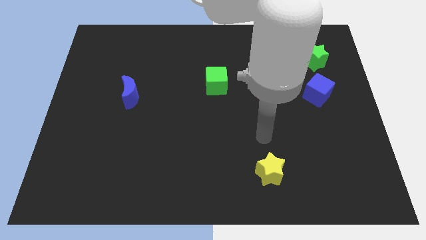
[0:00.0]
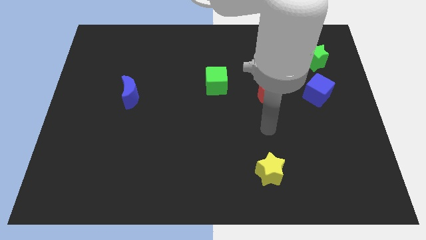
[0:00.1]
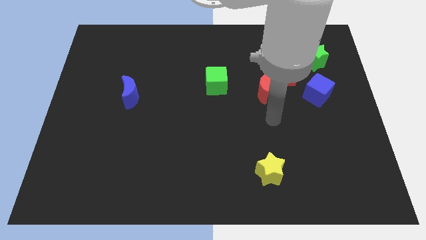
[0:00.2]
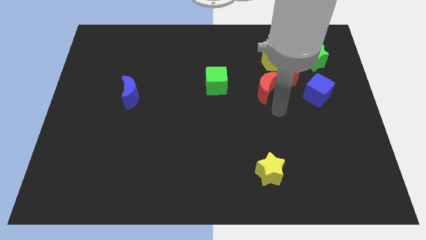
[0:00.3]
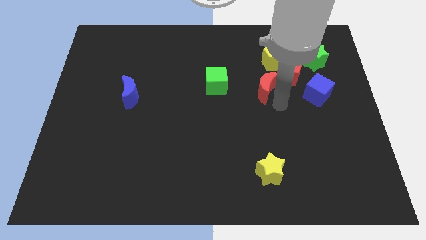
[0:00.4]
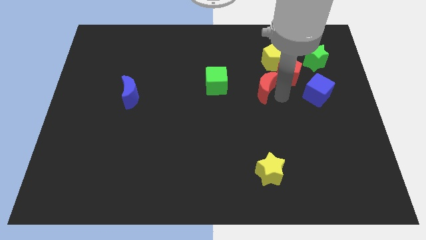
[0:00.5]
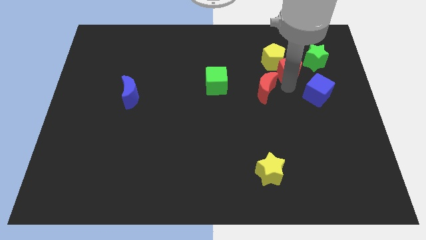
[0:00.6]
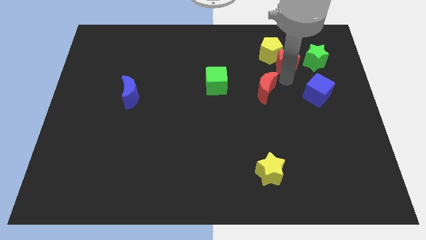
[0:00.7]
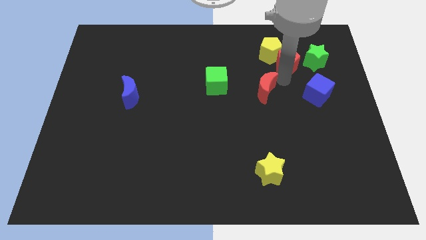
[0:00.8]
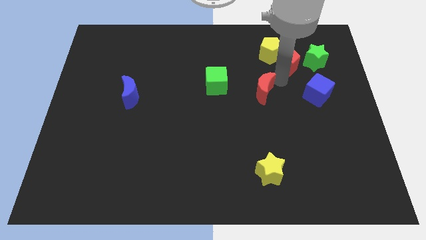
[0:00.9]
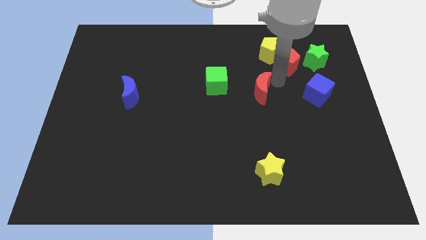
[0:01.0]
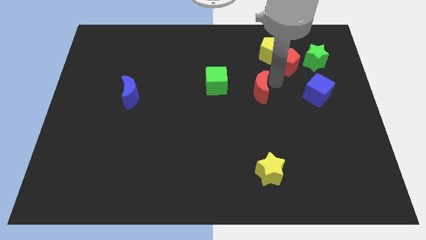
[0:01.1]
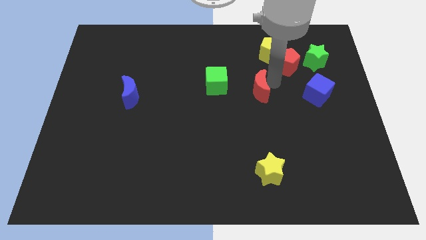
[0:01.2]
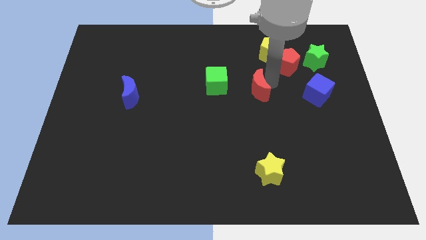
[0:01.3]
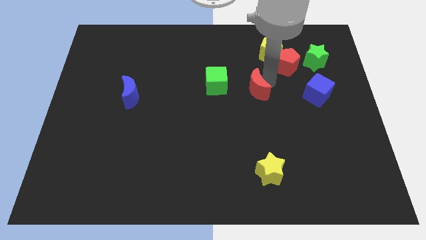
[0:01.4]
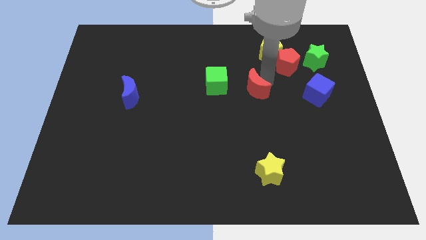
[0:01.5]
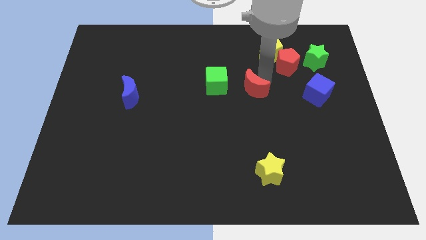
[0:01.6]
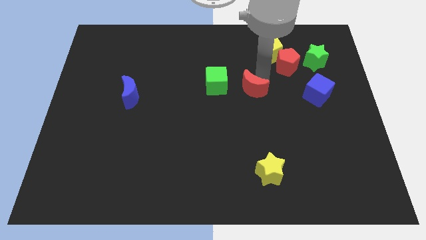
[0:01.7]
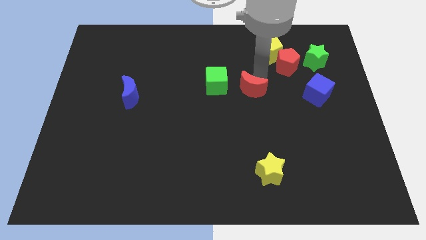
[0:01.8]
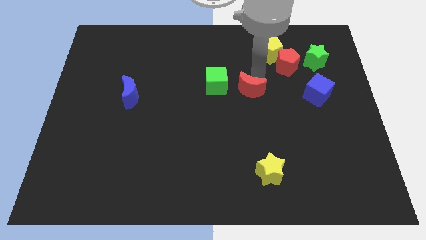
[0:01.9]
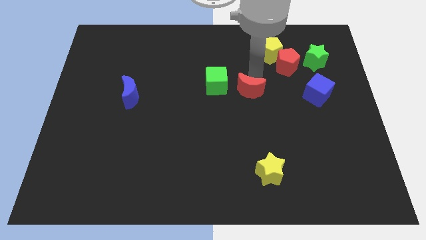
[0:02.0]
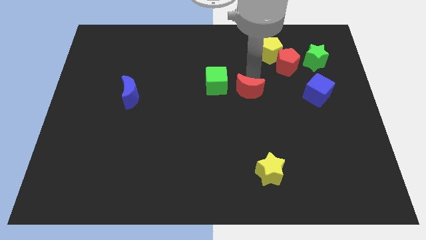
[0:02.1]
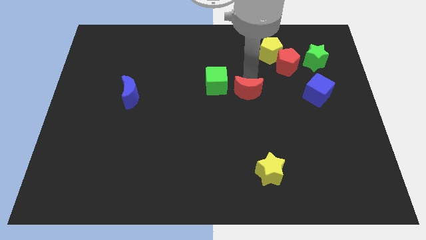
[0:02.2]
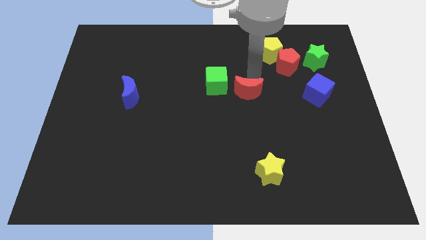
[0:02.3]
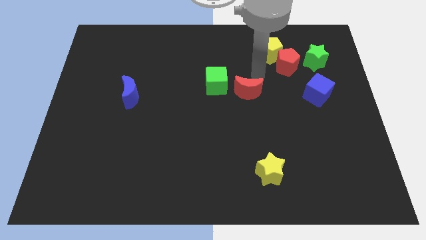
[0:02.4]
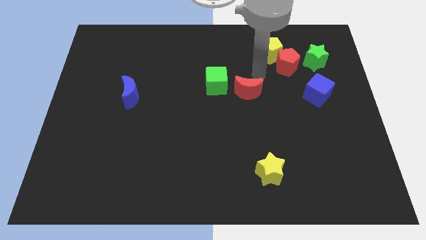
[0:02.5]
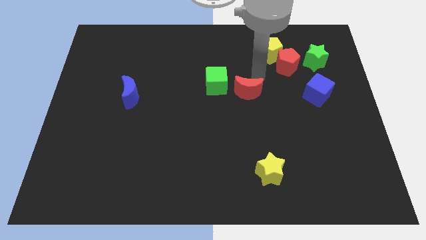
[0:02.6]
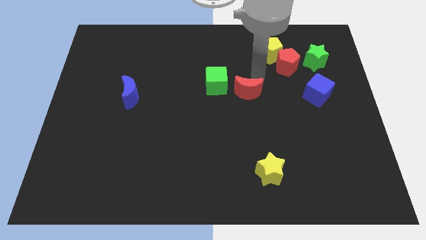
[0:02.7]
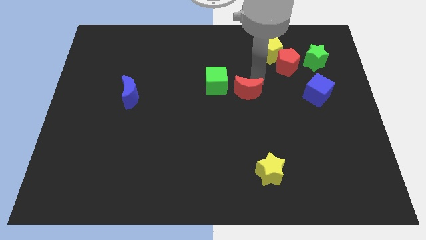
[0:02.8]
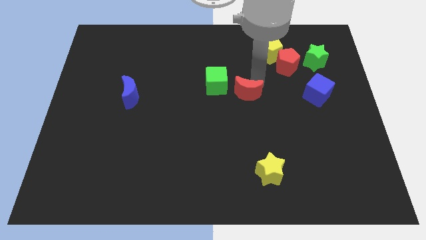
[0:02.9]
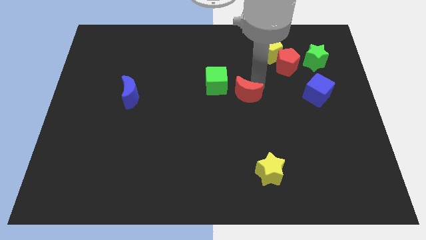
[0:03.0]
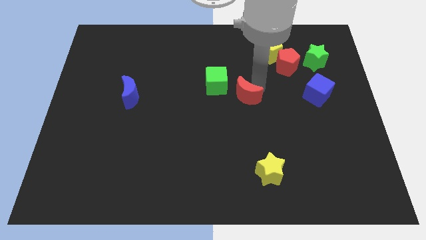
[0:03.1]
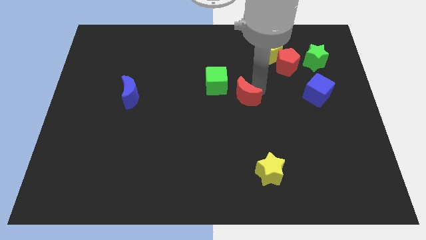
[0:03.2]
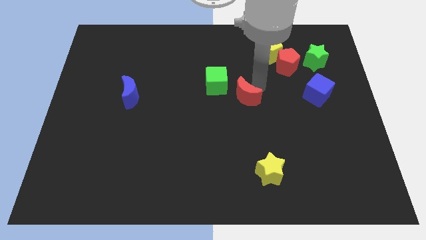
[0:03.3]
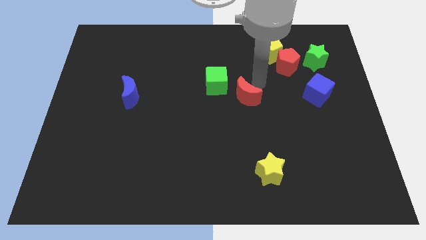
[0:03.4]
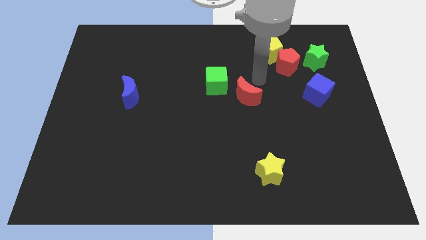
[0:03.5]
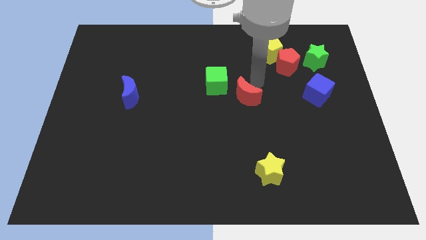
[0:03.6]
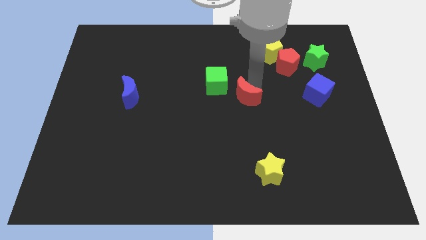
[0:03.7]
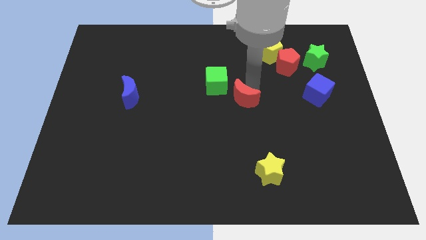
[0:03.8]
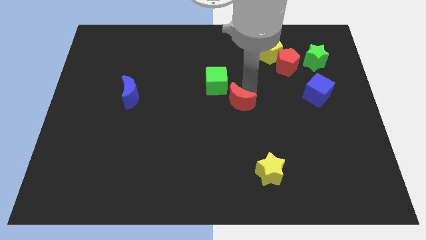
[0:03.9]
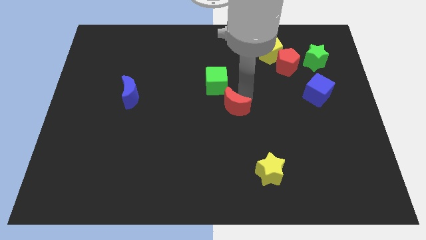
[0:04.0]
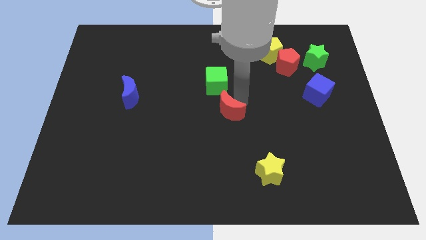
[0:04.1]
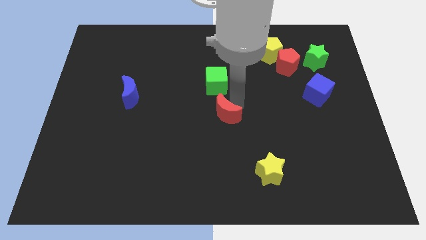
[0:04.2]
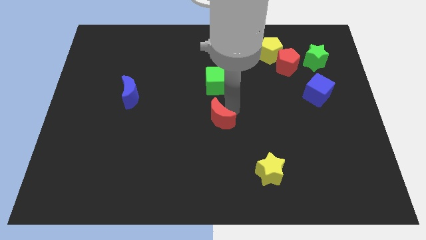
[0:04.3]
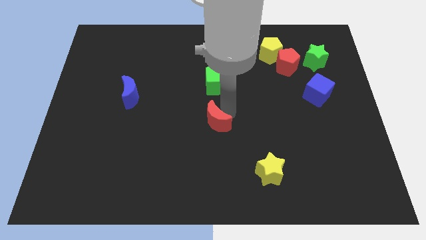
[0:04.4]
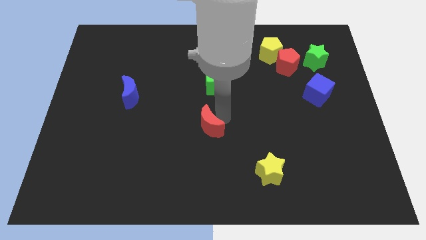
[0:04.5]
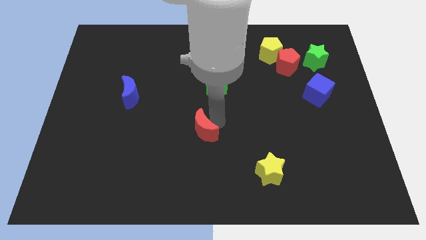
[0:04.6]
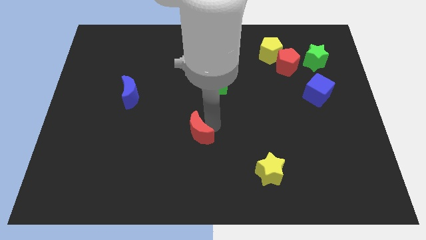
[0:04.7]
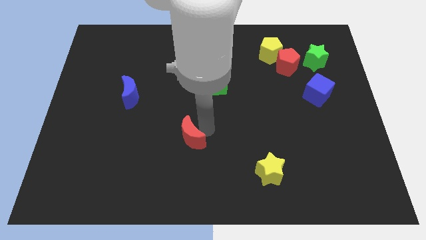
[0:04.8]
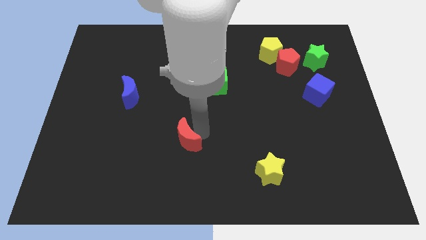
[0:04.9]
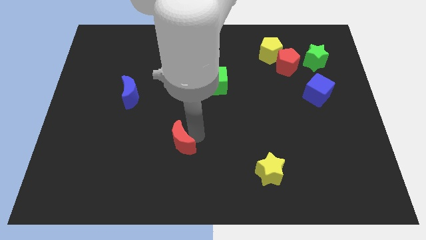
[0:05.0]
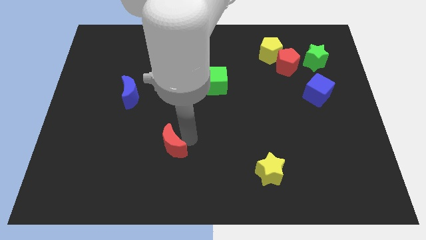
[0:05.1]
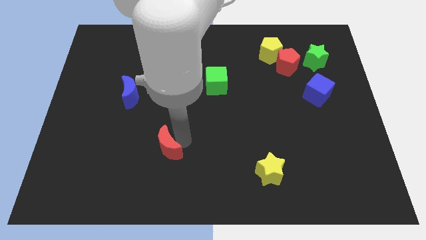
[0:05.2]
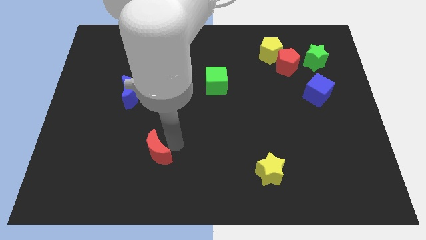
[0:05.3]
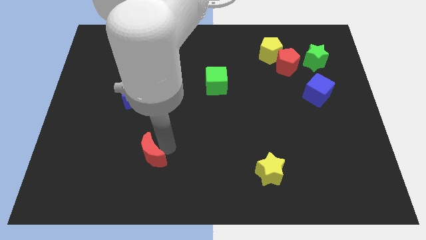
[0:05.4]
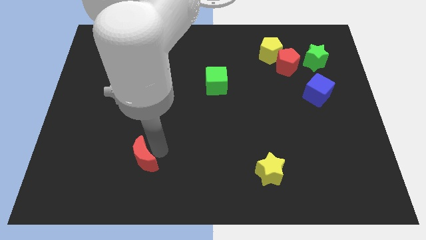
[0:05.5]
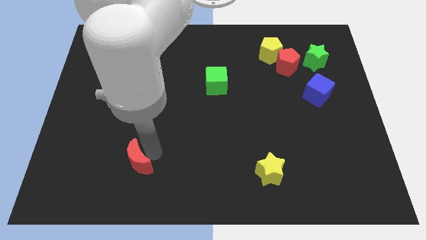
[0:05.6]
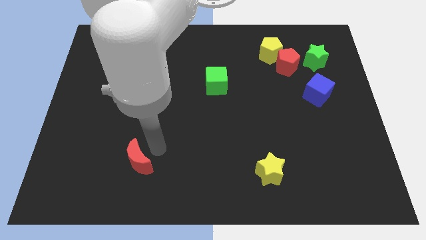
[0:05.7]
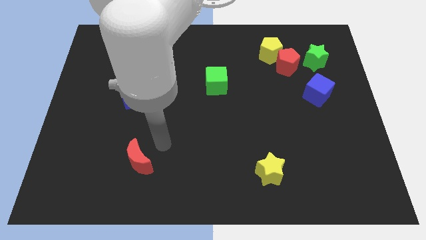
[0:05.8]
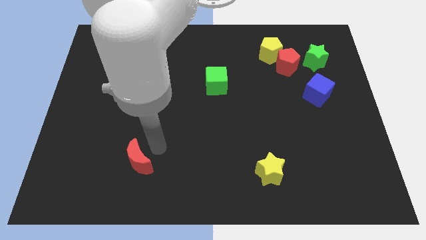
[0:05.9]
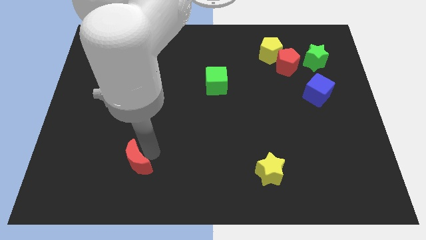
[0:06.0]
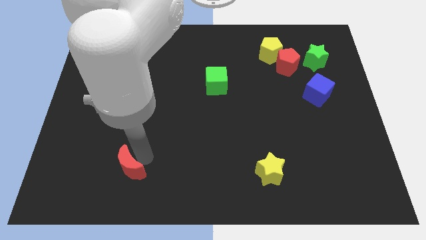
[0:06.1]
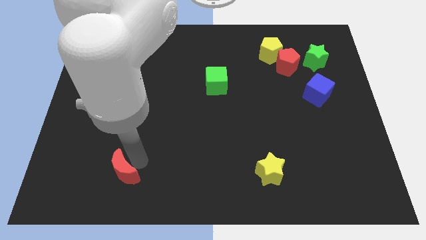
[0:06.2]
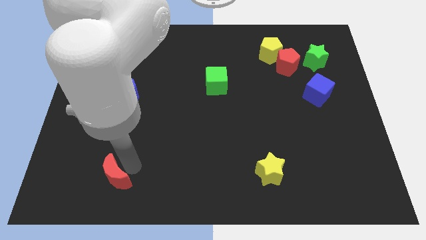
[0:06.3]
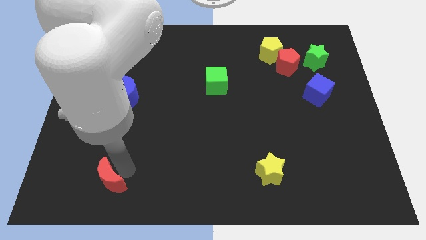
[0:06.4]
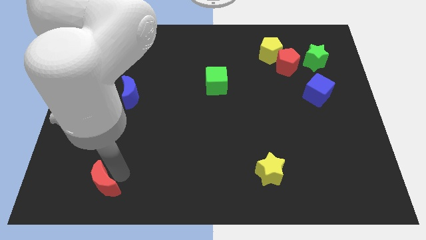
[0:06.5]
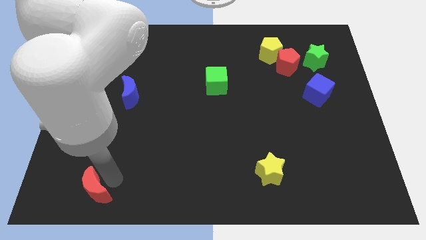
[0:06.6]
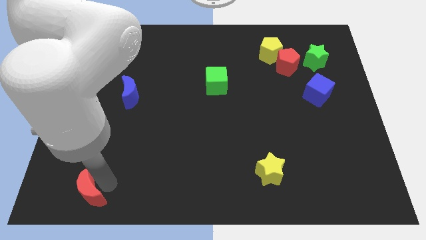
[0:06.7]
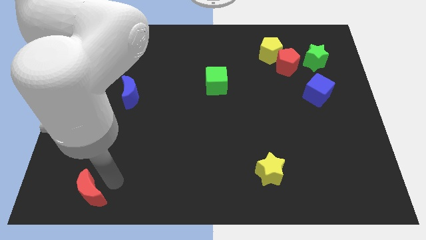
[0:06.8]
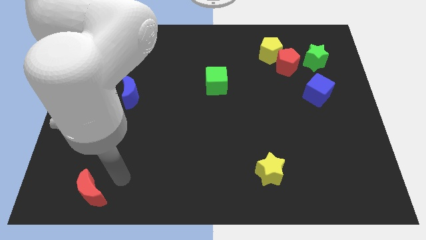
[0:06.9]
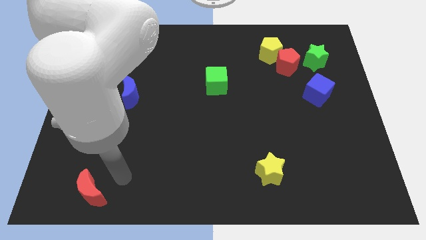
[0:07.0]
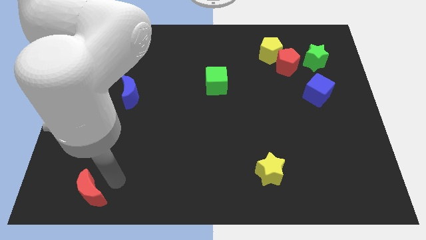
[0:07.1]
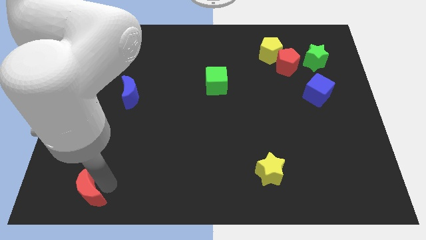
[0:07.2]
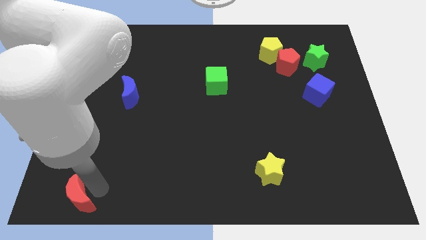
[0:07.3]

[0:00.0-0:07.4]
move the red moon to the bottom left

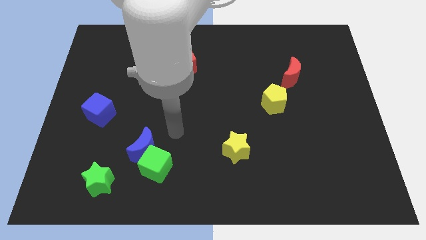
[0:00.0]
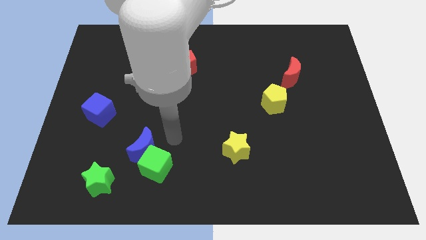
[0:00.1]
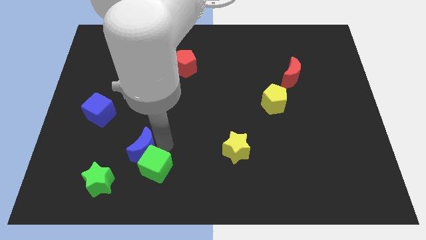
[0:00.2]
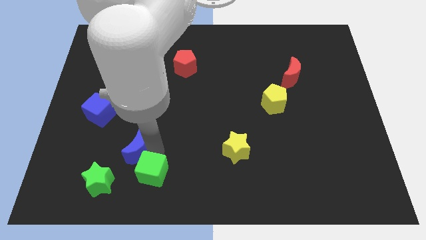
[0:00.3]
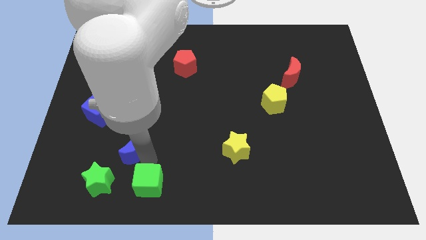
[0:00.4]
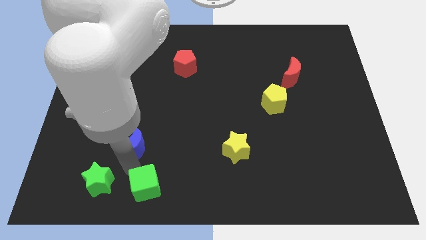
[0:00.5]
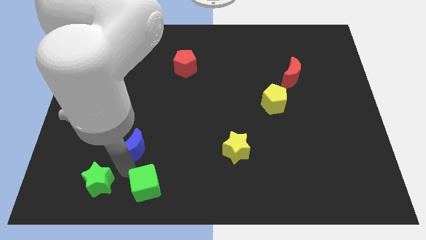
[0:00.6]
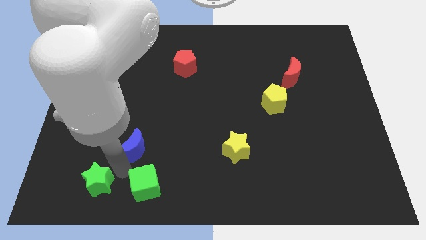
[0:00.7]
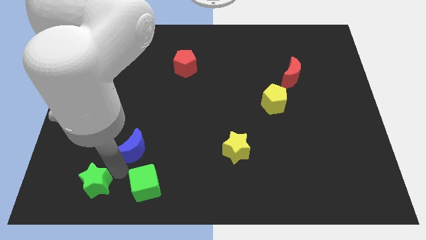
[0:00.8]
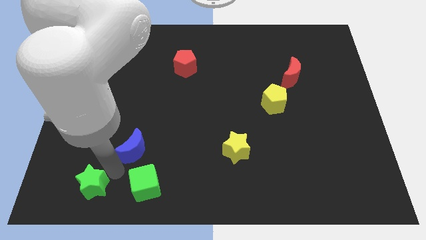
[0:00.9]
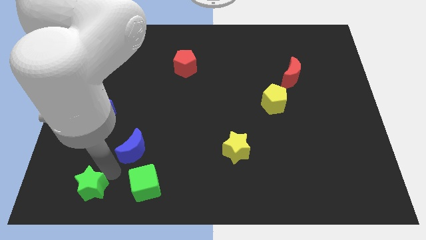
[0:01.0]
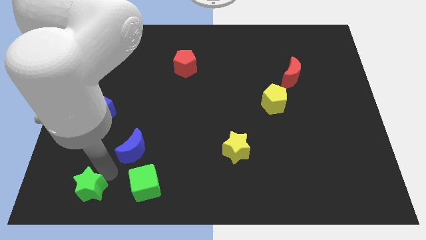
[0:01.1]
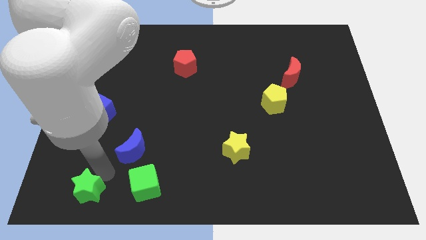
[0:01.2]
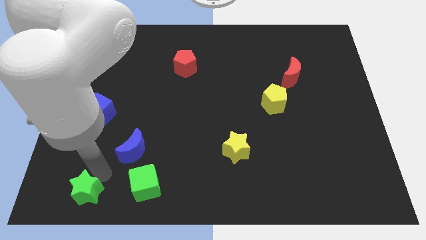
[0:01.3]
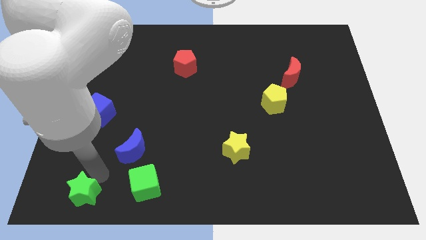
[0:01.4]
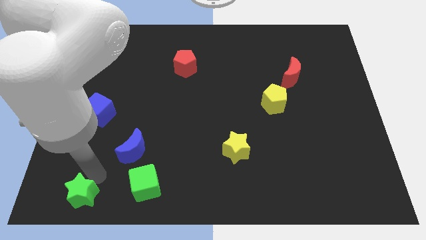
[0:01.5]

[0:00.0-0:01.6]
move the green star to the lower left corner
